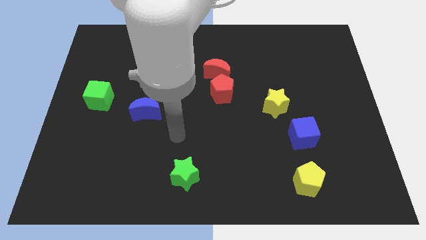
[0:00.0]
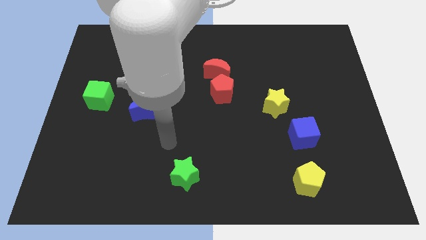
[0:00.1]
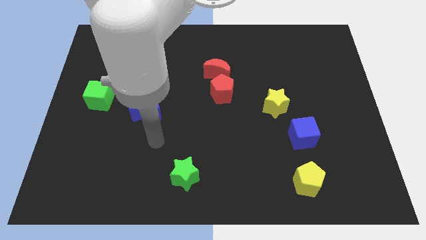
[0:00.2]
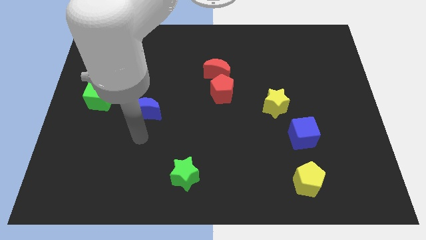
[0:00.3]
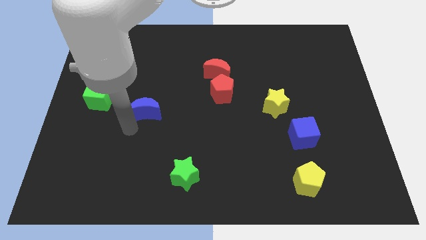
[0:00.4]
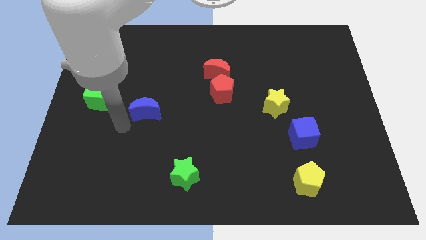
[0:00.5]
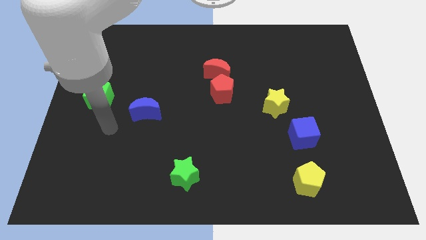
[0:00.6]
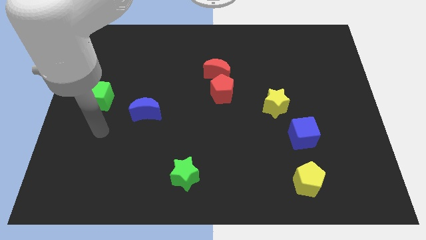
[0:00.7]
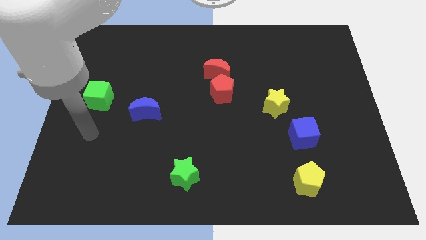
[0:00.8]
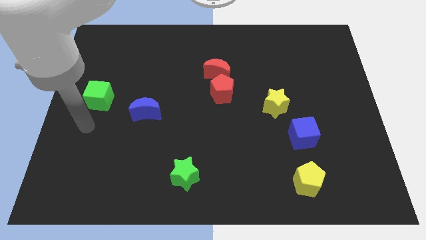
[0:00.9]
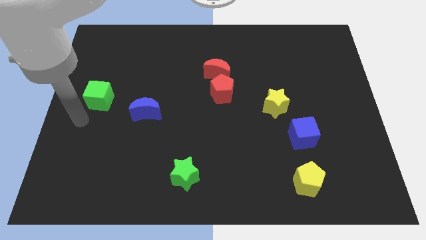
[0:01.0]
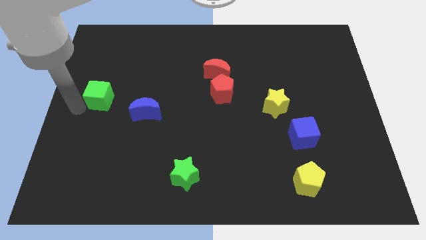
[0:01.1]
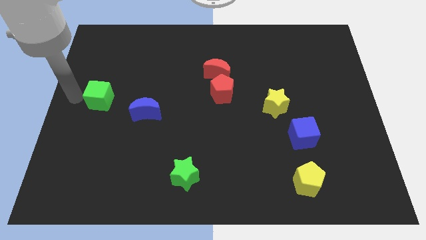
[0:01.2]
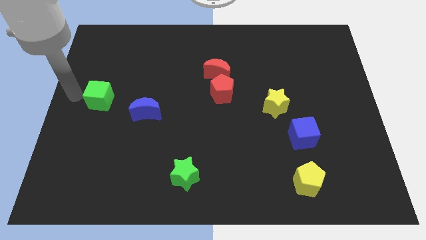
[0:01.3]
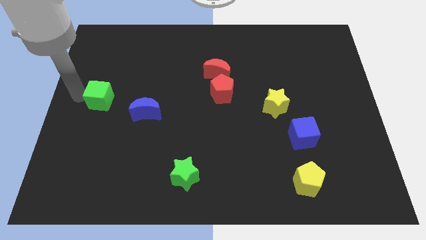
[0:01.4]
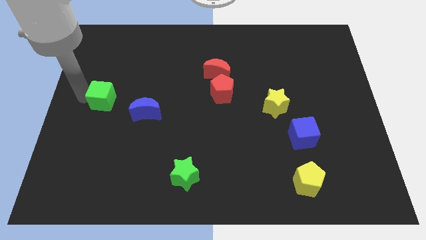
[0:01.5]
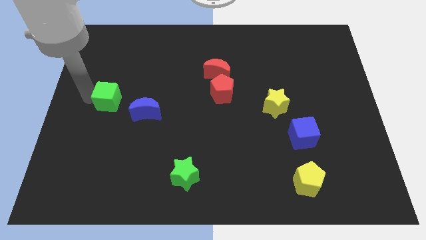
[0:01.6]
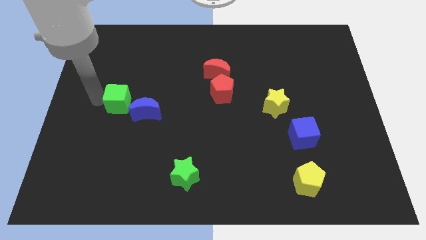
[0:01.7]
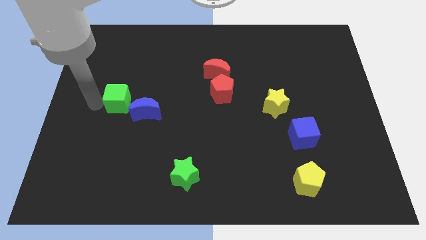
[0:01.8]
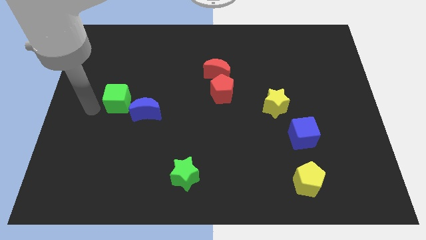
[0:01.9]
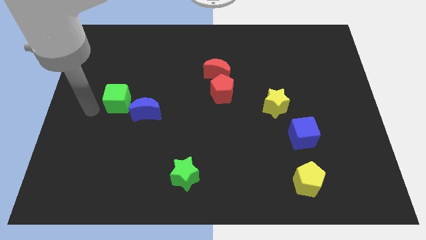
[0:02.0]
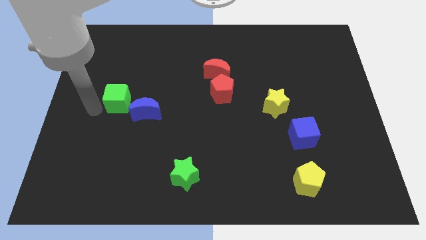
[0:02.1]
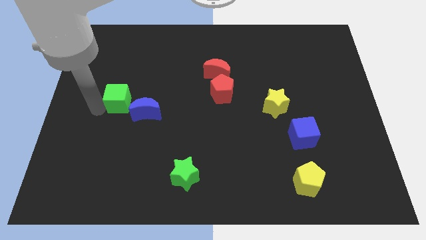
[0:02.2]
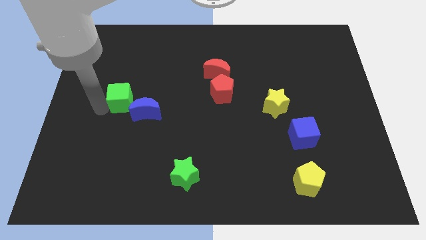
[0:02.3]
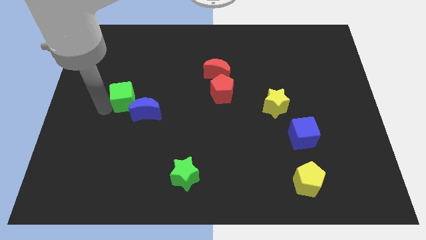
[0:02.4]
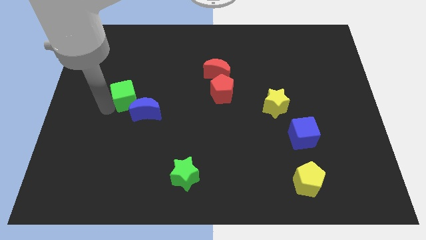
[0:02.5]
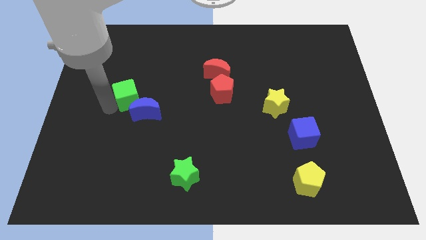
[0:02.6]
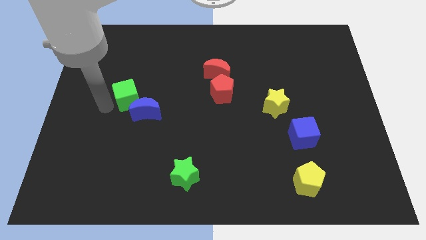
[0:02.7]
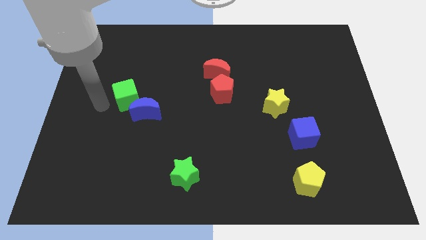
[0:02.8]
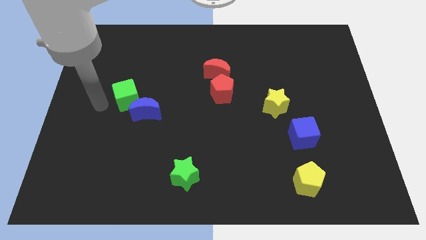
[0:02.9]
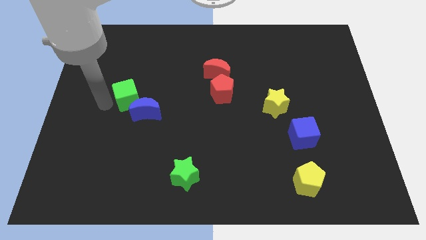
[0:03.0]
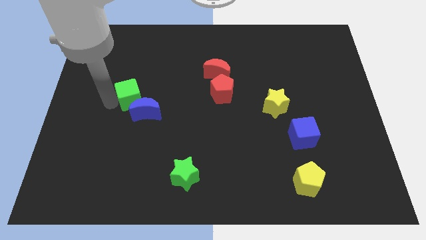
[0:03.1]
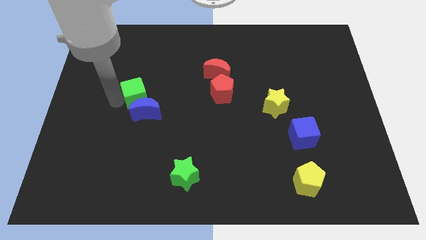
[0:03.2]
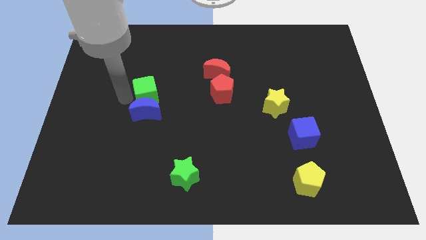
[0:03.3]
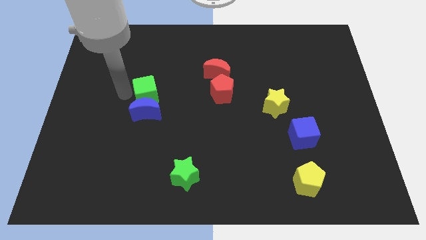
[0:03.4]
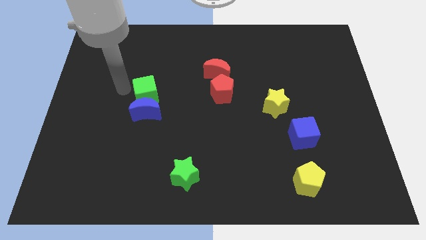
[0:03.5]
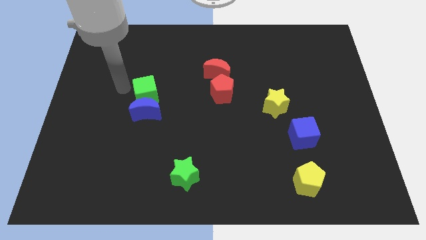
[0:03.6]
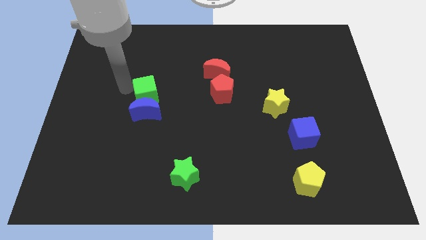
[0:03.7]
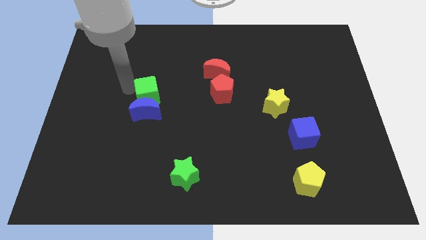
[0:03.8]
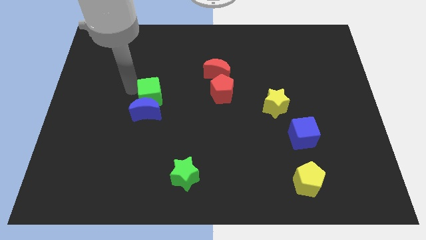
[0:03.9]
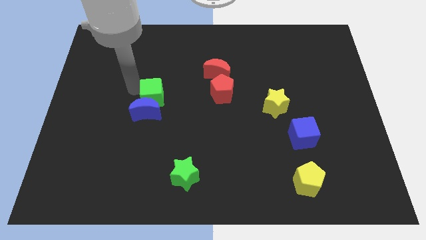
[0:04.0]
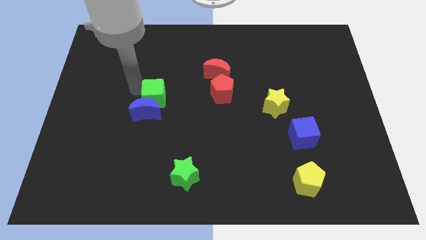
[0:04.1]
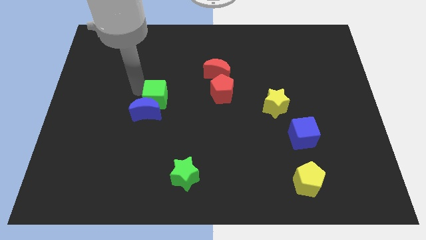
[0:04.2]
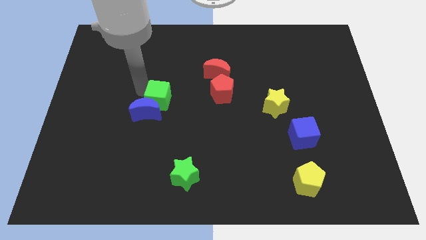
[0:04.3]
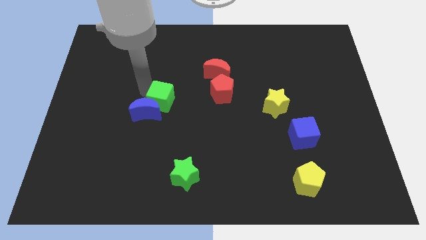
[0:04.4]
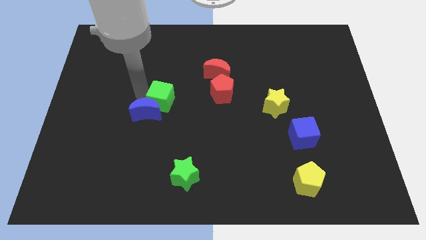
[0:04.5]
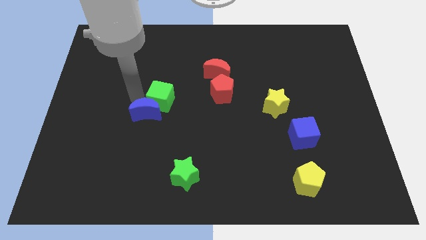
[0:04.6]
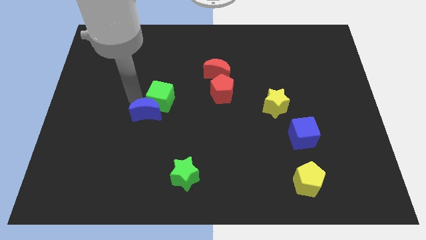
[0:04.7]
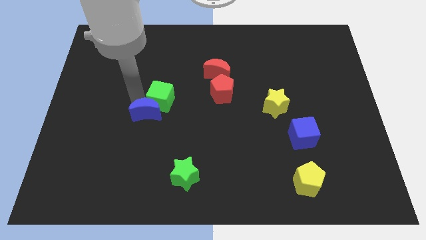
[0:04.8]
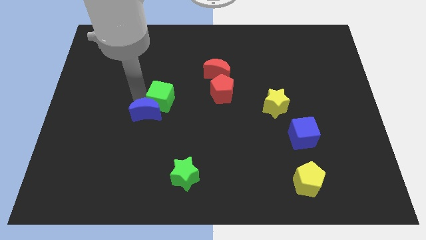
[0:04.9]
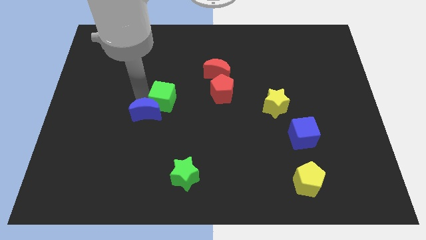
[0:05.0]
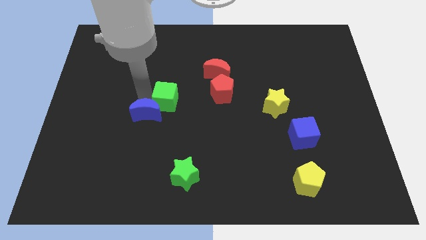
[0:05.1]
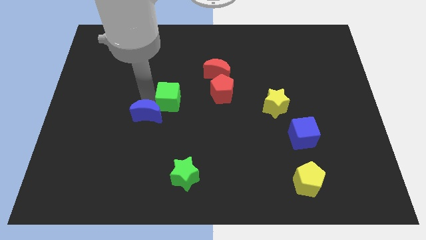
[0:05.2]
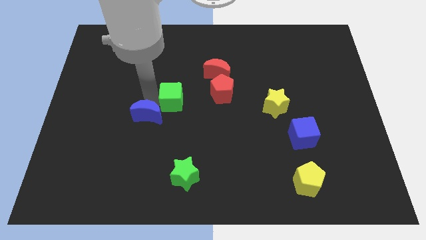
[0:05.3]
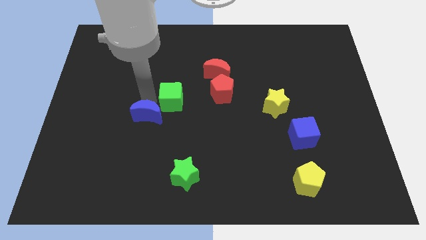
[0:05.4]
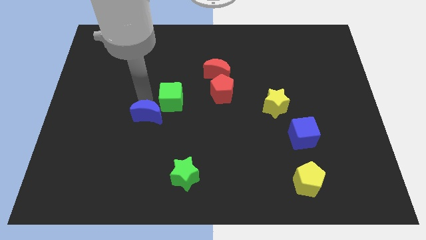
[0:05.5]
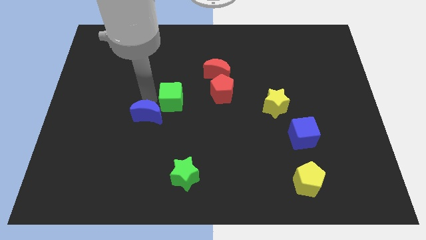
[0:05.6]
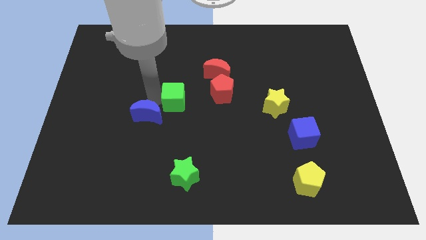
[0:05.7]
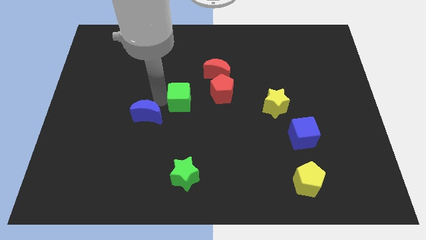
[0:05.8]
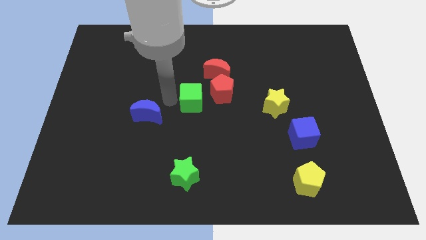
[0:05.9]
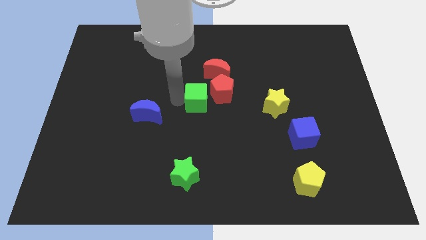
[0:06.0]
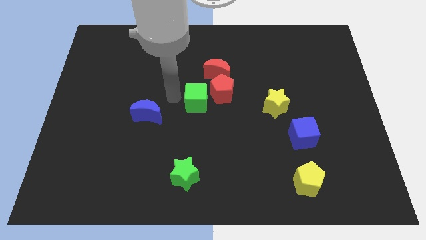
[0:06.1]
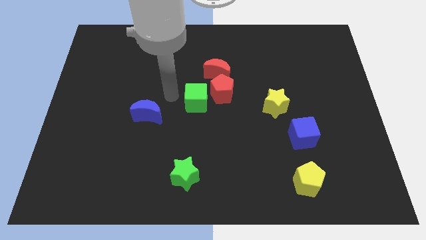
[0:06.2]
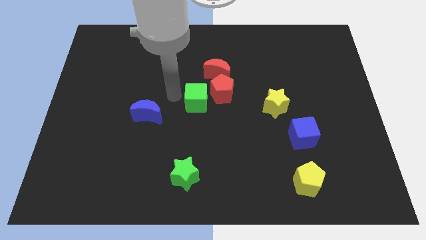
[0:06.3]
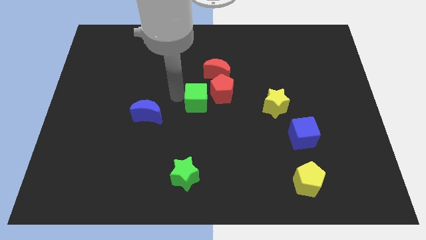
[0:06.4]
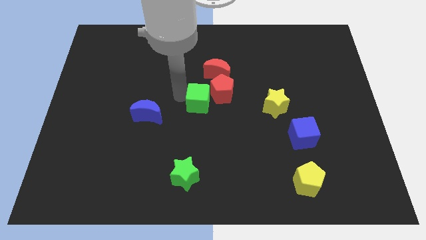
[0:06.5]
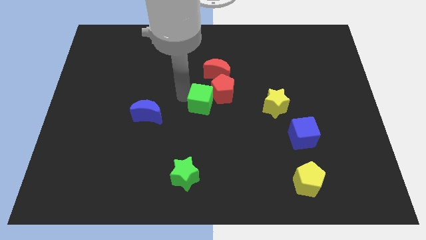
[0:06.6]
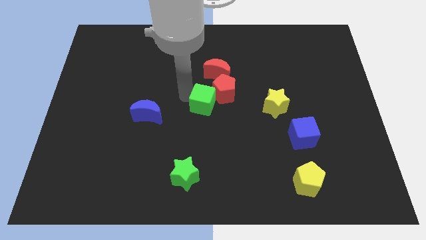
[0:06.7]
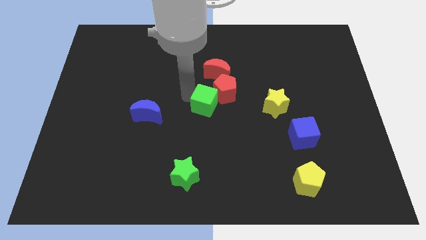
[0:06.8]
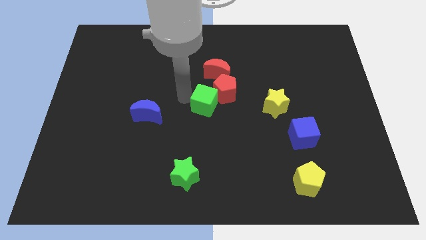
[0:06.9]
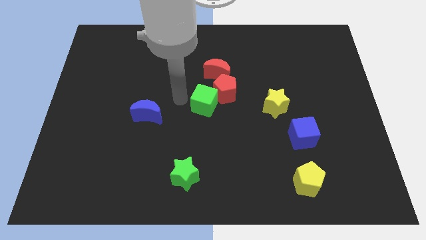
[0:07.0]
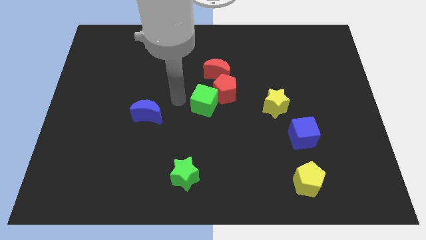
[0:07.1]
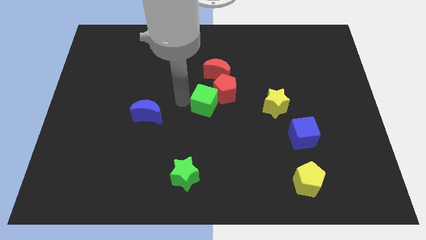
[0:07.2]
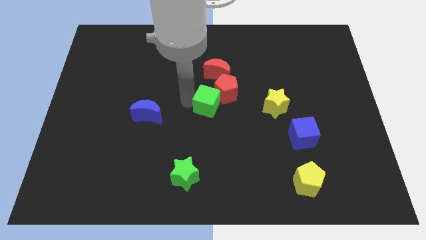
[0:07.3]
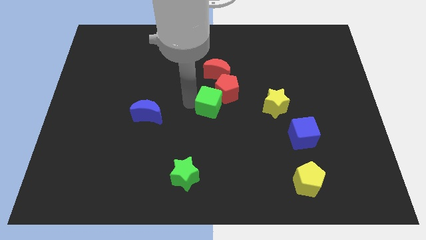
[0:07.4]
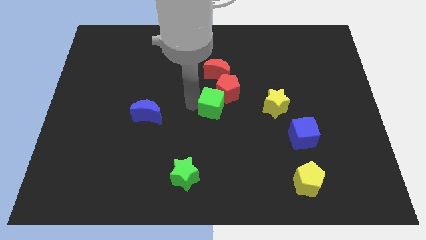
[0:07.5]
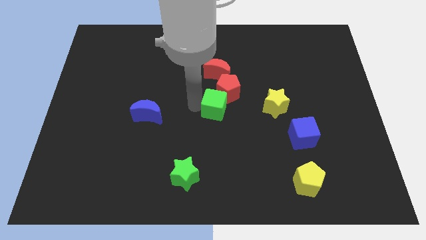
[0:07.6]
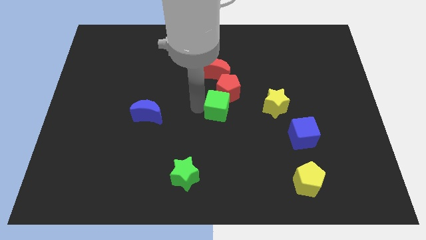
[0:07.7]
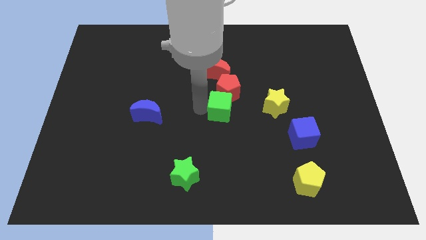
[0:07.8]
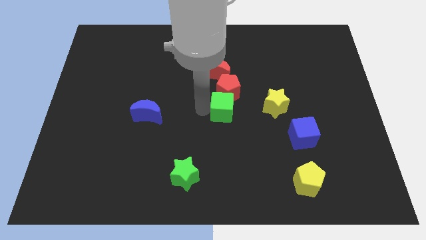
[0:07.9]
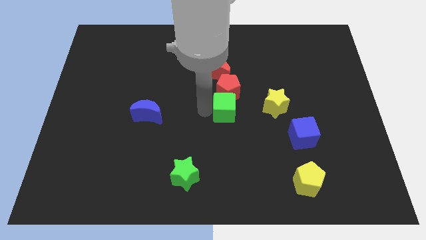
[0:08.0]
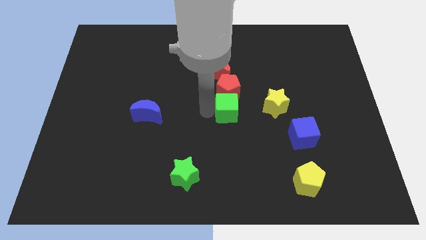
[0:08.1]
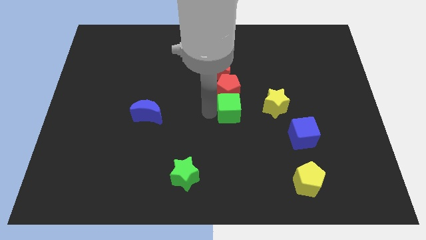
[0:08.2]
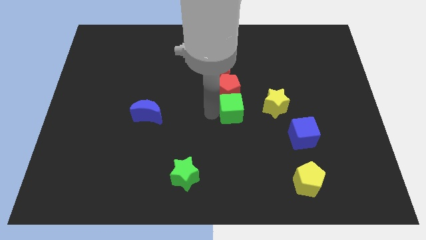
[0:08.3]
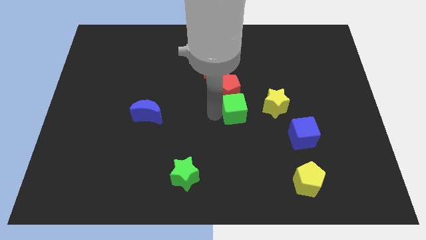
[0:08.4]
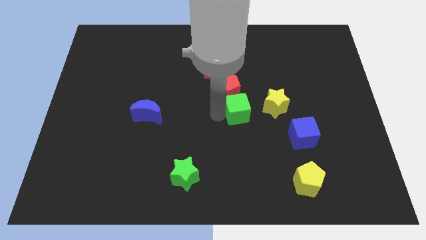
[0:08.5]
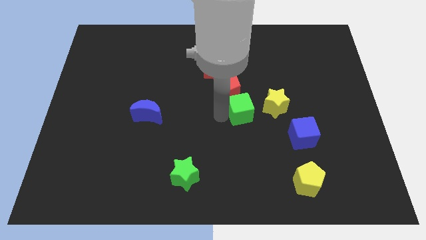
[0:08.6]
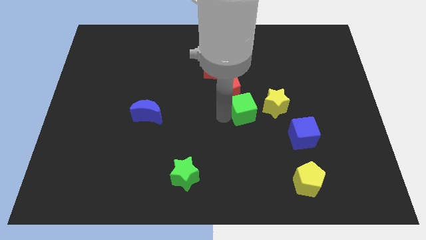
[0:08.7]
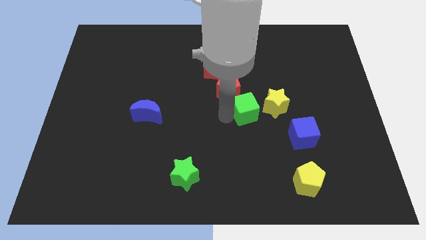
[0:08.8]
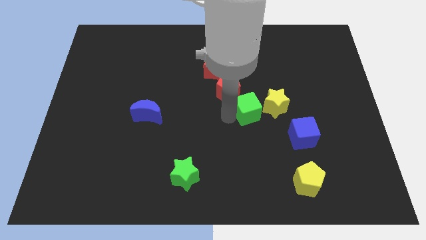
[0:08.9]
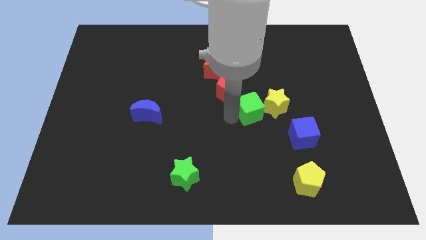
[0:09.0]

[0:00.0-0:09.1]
slide the green cube towards the yellow star
